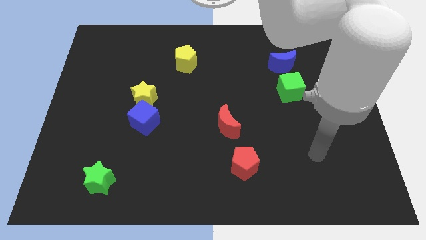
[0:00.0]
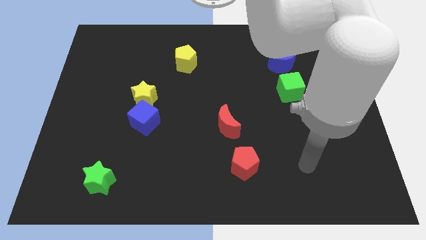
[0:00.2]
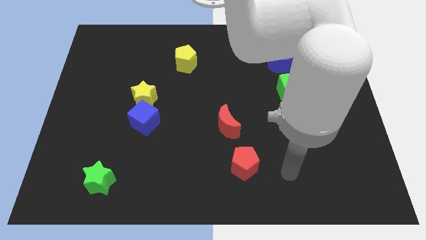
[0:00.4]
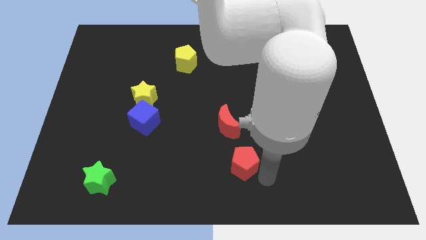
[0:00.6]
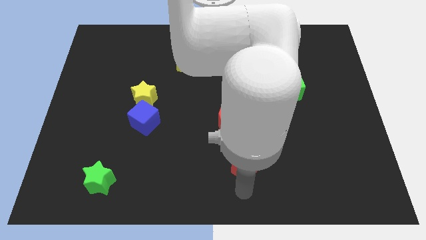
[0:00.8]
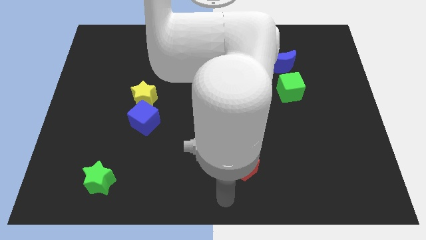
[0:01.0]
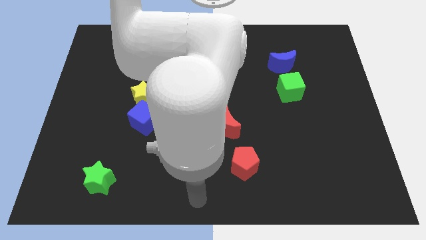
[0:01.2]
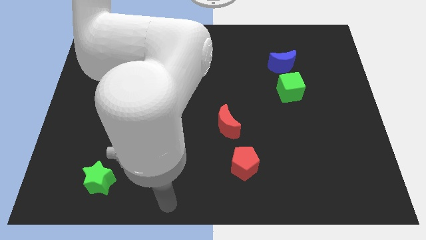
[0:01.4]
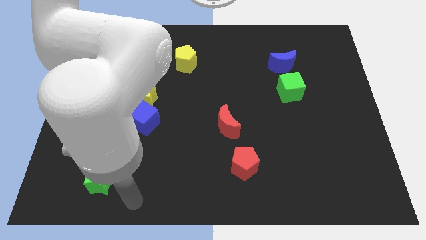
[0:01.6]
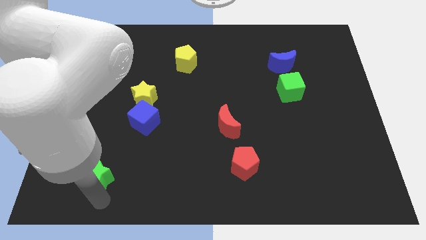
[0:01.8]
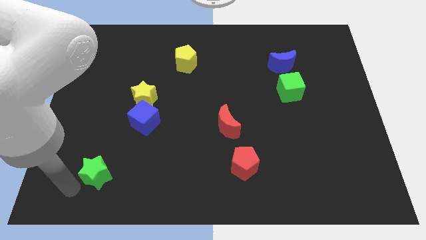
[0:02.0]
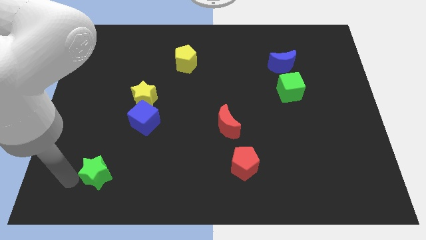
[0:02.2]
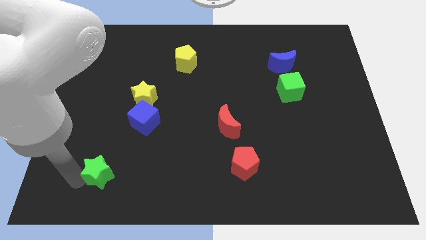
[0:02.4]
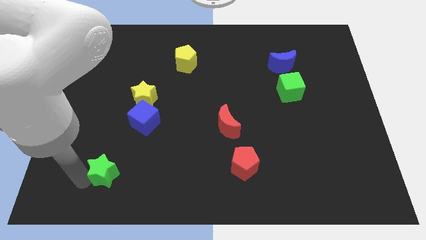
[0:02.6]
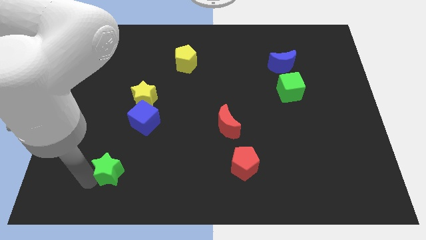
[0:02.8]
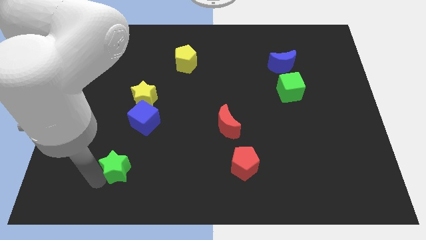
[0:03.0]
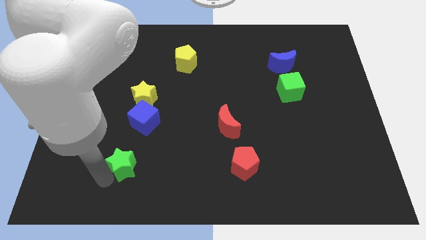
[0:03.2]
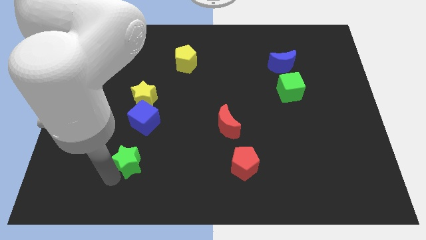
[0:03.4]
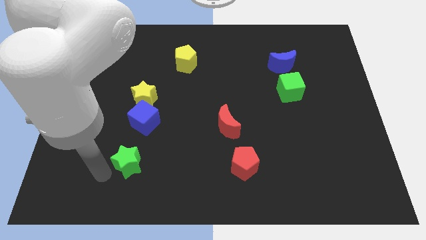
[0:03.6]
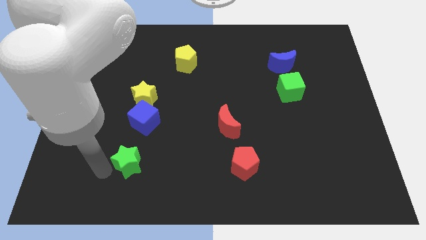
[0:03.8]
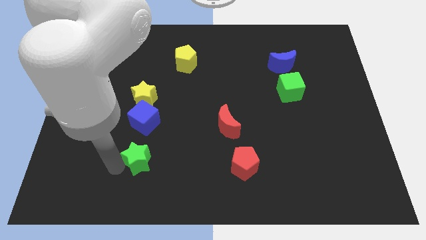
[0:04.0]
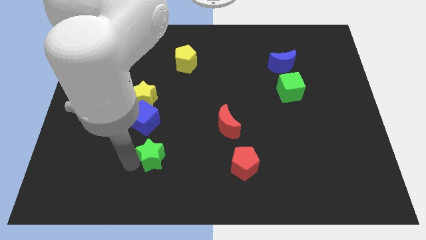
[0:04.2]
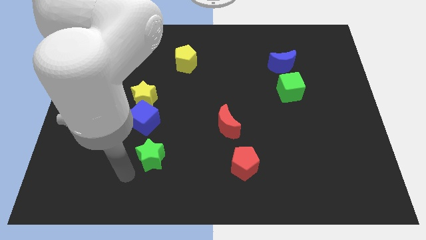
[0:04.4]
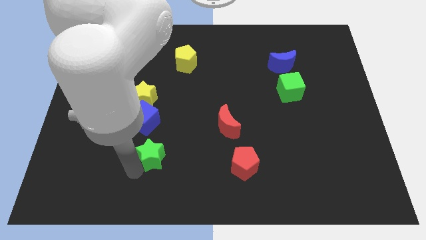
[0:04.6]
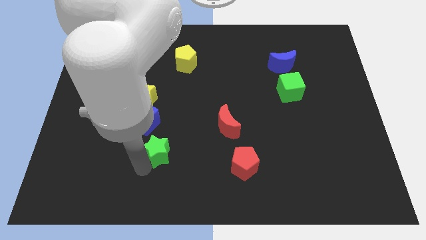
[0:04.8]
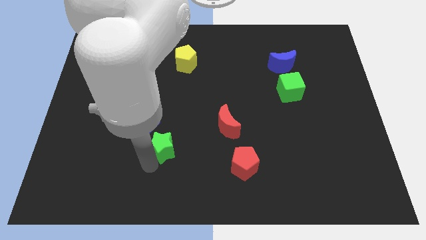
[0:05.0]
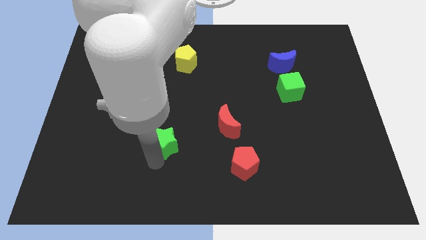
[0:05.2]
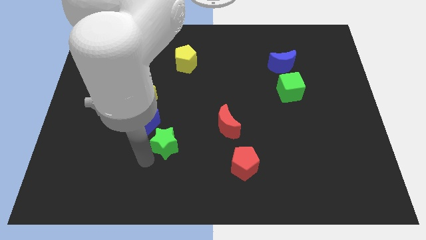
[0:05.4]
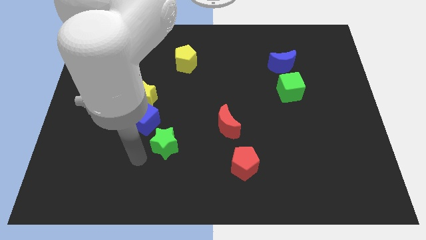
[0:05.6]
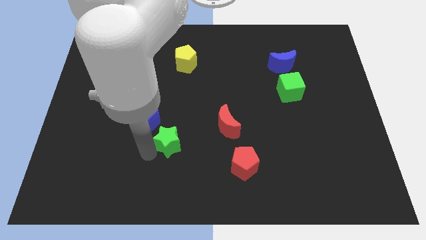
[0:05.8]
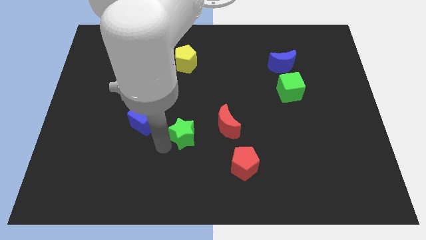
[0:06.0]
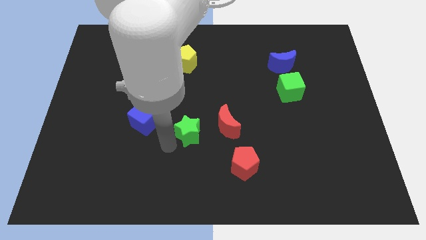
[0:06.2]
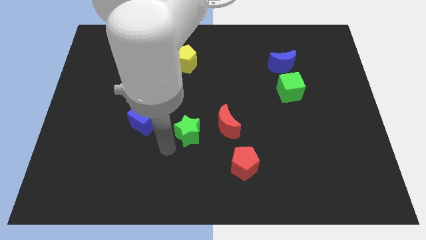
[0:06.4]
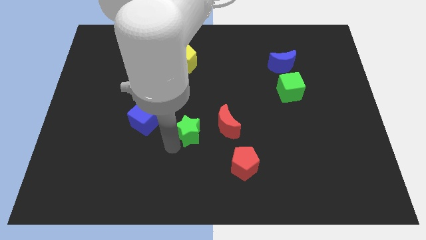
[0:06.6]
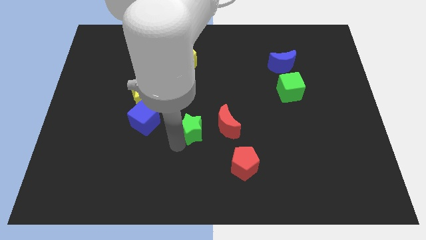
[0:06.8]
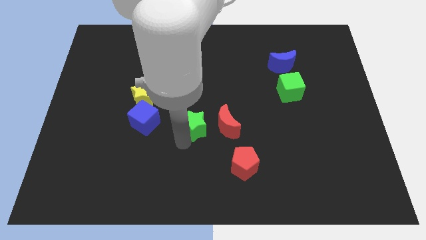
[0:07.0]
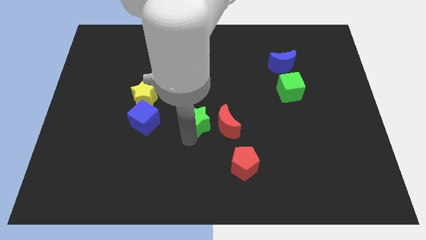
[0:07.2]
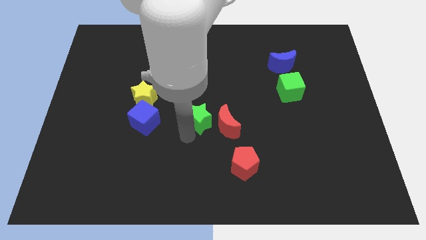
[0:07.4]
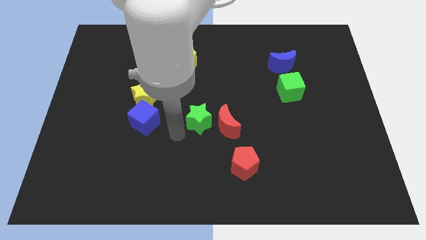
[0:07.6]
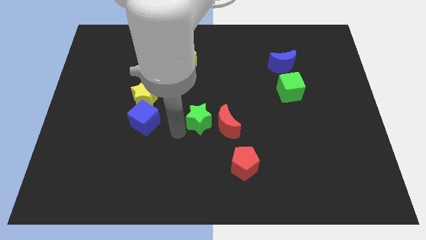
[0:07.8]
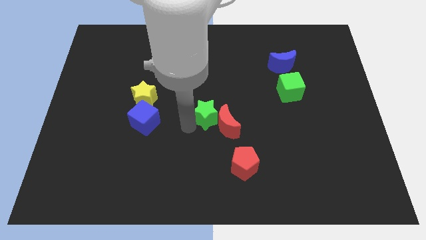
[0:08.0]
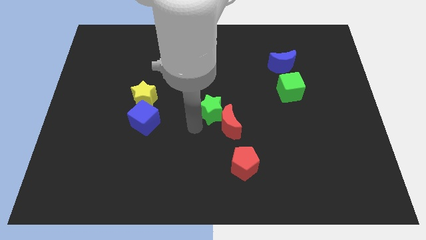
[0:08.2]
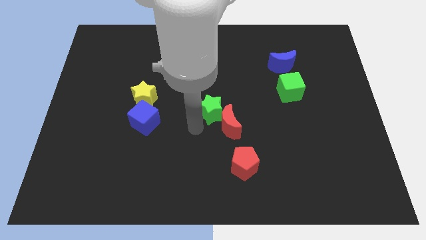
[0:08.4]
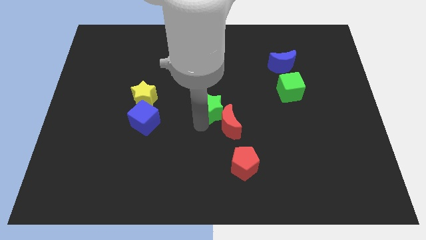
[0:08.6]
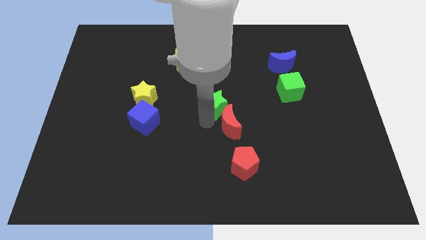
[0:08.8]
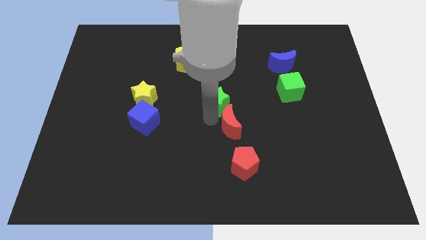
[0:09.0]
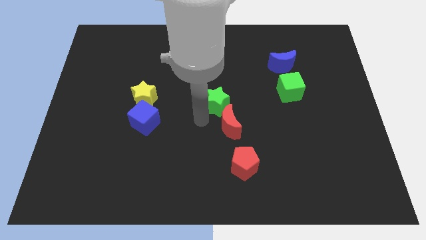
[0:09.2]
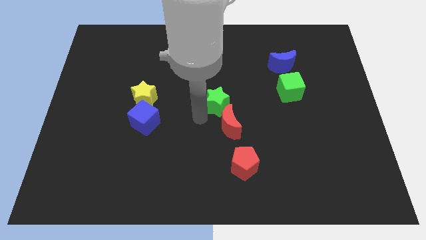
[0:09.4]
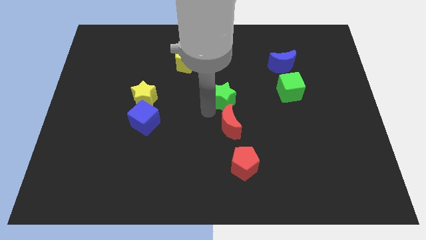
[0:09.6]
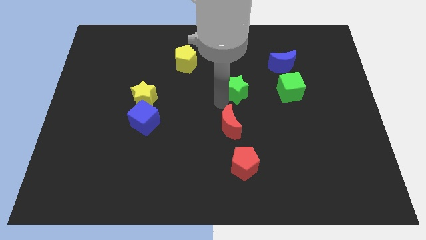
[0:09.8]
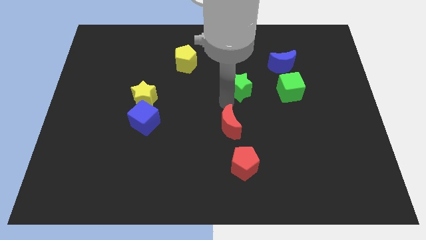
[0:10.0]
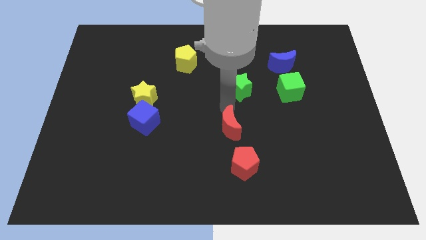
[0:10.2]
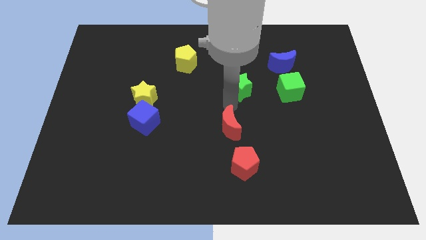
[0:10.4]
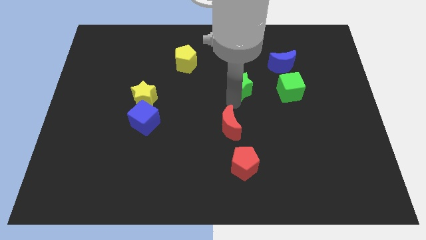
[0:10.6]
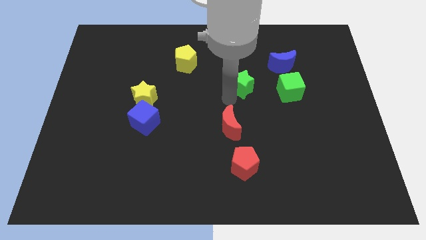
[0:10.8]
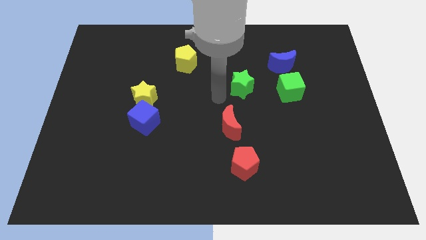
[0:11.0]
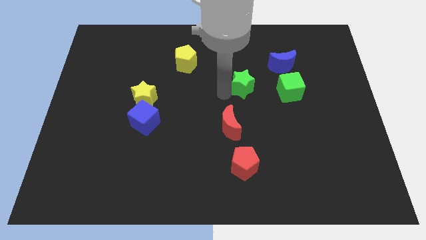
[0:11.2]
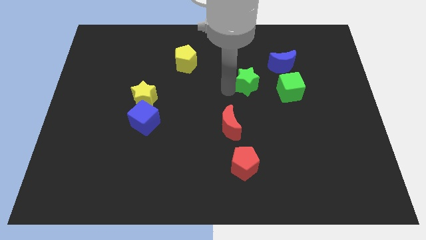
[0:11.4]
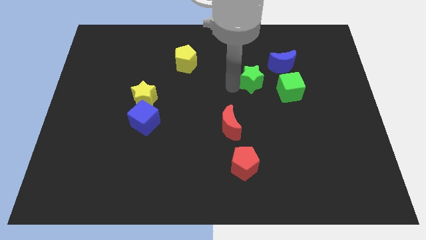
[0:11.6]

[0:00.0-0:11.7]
push the green star to the top left of the green cube
